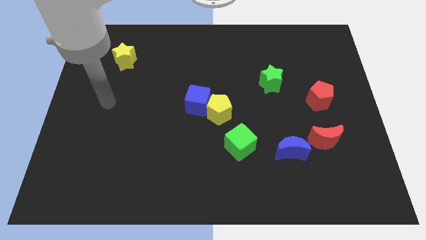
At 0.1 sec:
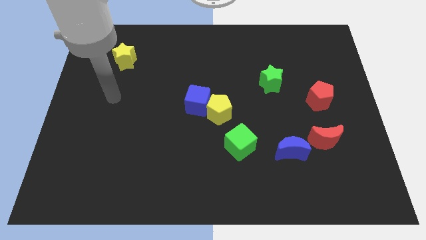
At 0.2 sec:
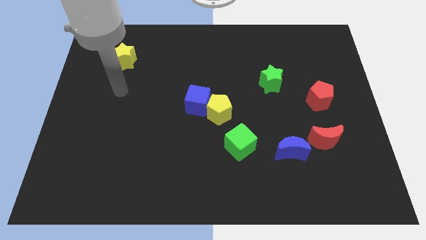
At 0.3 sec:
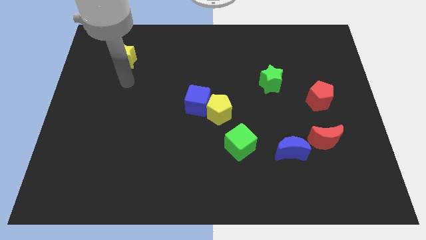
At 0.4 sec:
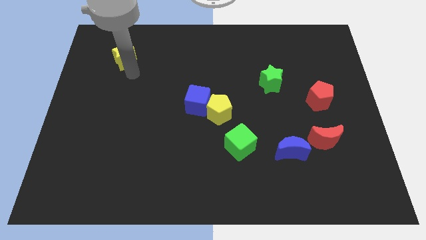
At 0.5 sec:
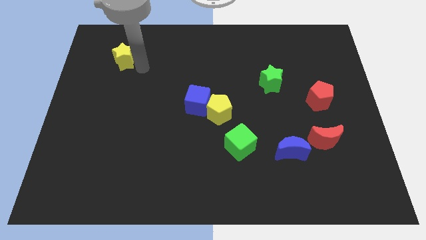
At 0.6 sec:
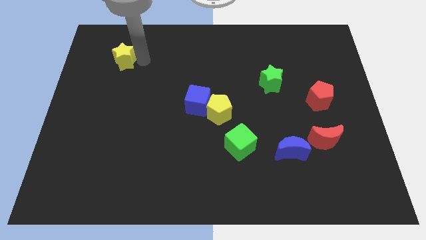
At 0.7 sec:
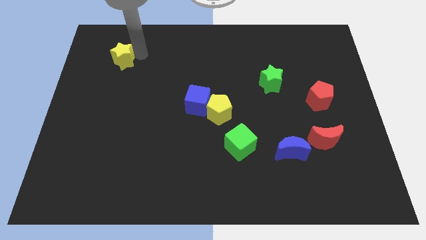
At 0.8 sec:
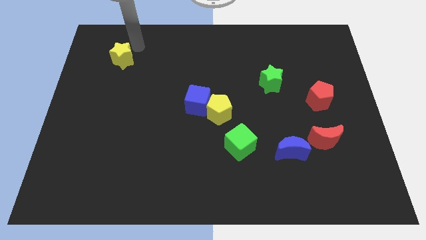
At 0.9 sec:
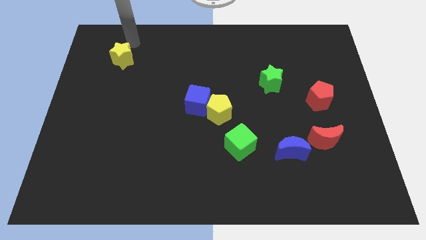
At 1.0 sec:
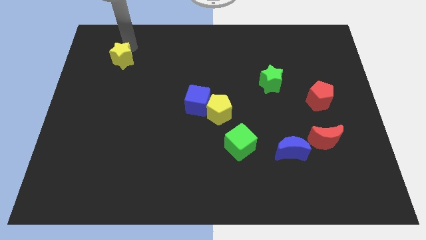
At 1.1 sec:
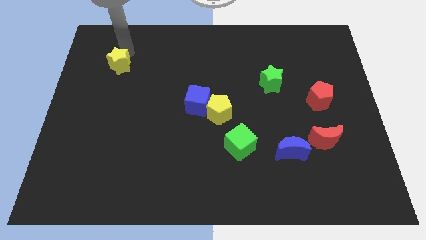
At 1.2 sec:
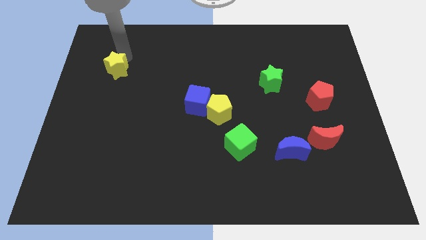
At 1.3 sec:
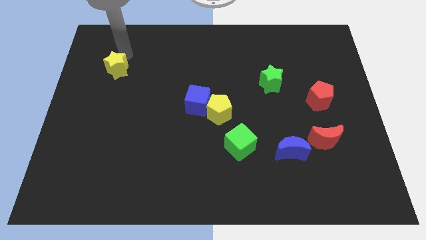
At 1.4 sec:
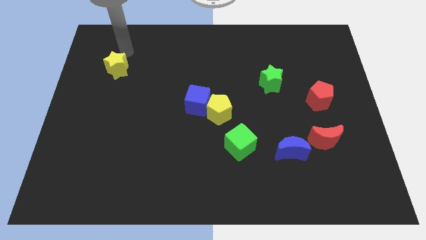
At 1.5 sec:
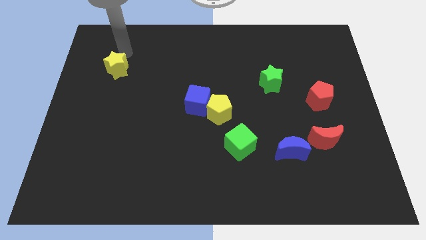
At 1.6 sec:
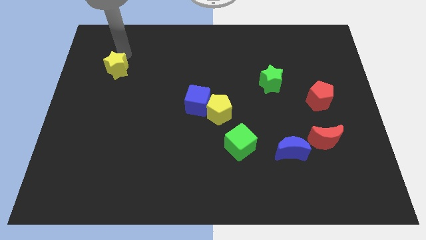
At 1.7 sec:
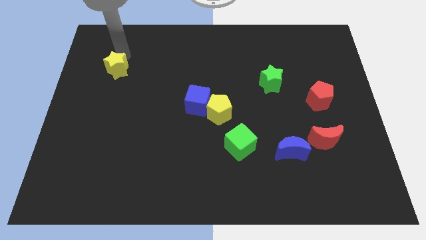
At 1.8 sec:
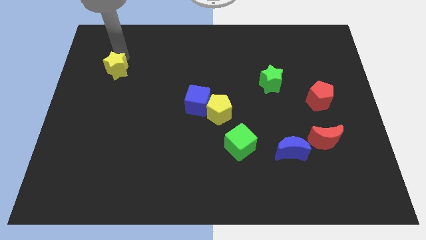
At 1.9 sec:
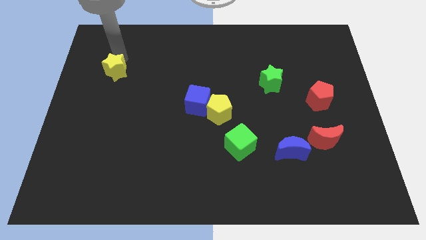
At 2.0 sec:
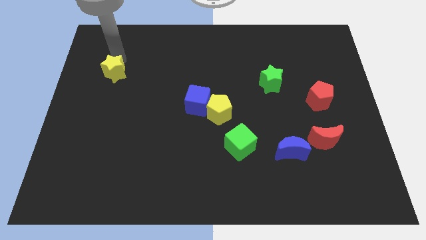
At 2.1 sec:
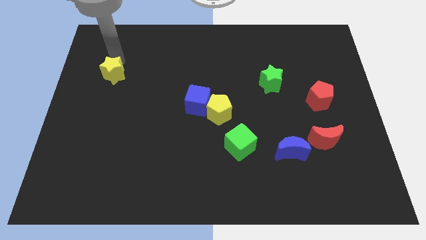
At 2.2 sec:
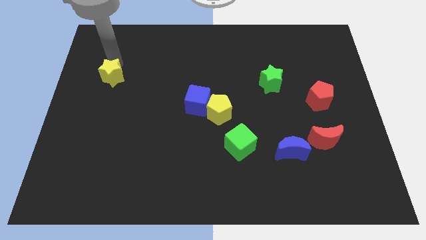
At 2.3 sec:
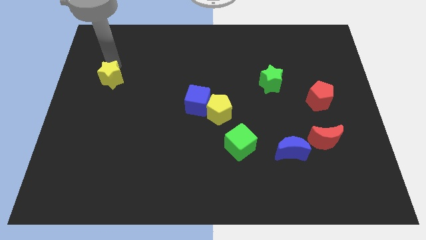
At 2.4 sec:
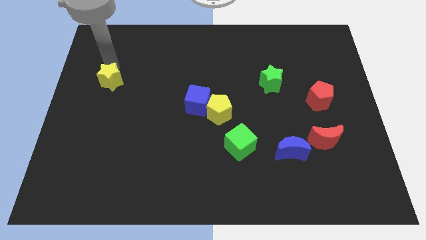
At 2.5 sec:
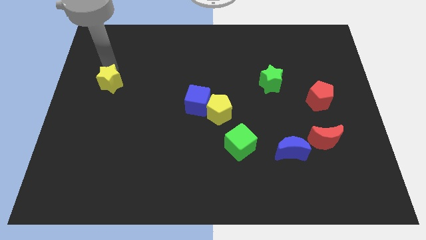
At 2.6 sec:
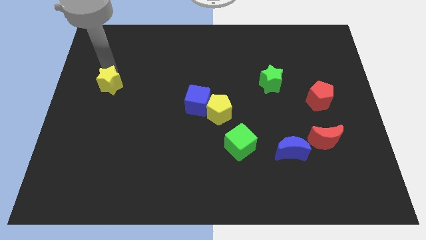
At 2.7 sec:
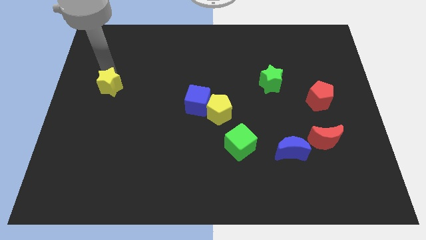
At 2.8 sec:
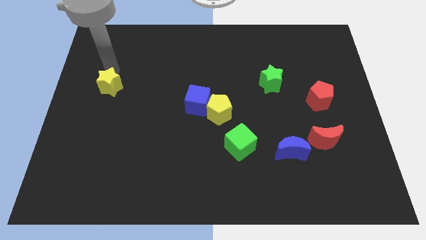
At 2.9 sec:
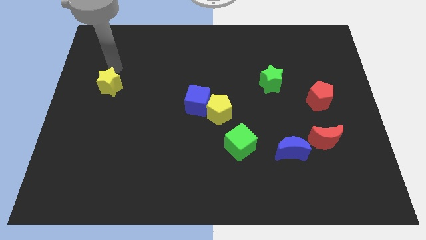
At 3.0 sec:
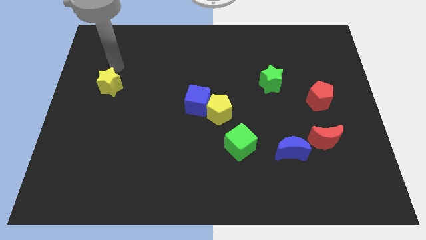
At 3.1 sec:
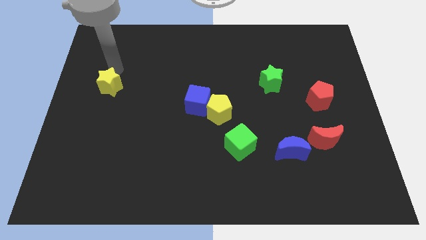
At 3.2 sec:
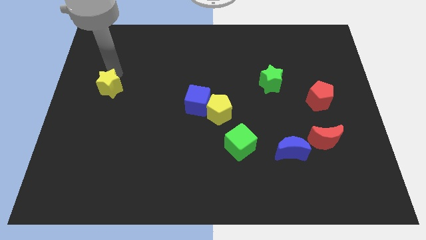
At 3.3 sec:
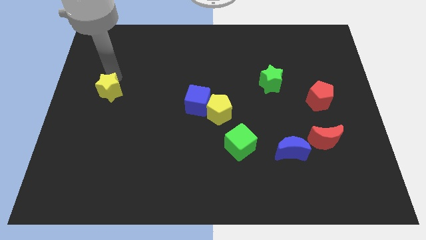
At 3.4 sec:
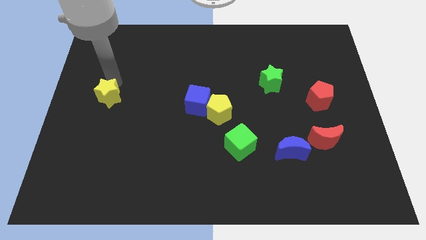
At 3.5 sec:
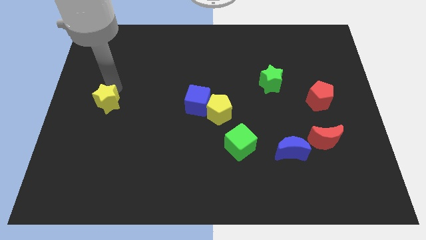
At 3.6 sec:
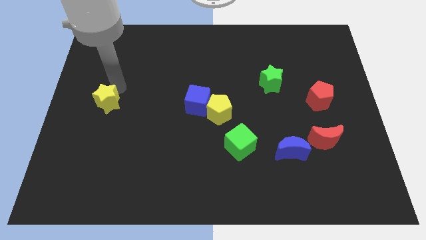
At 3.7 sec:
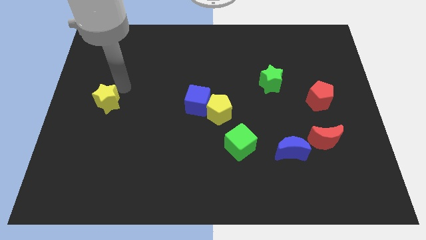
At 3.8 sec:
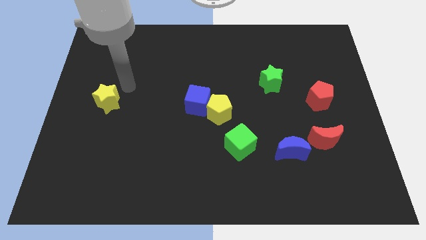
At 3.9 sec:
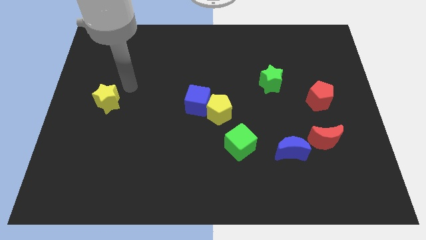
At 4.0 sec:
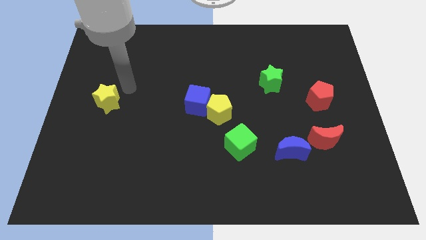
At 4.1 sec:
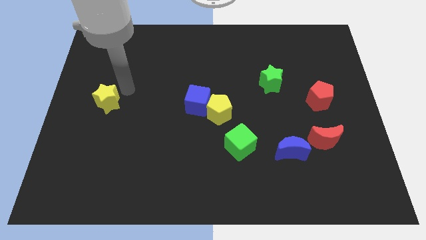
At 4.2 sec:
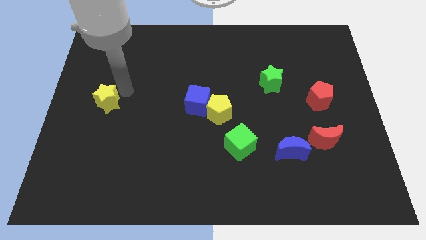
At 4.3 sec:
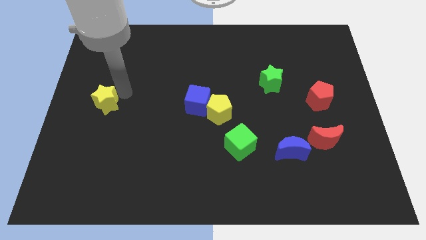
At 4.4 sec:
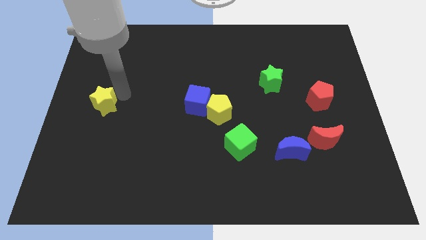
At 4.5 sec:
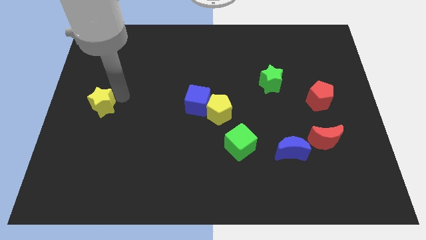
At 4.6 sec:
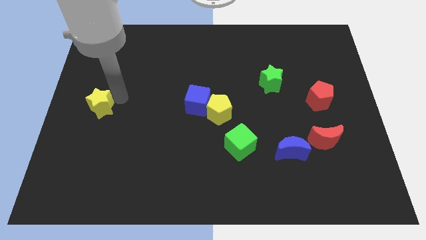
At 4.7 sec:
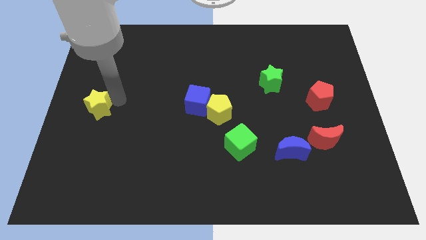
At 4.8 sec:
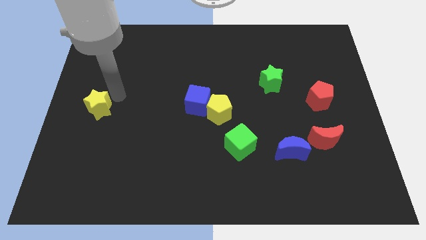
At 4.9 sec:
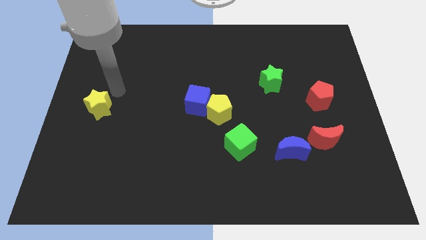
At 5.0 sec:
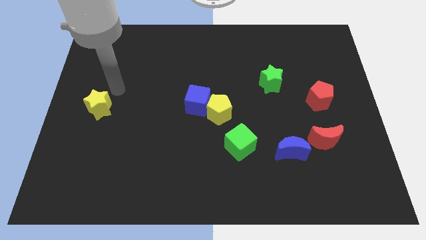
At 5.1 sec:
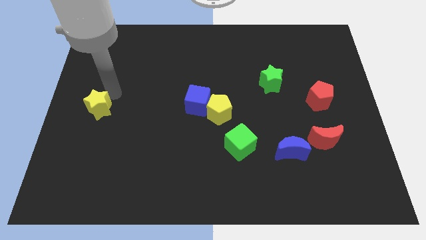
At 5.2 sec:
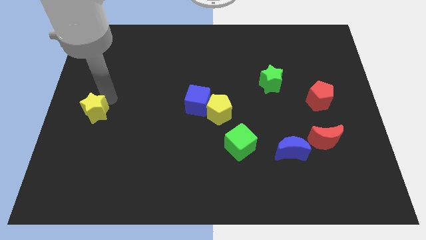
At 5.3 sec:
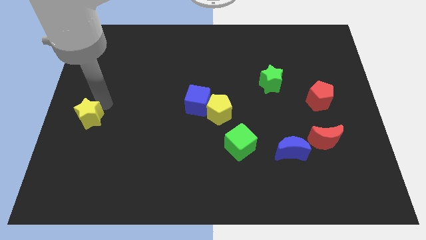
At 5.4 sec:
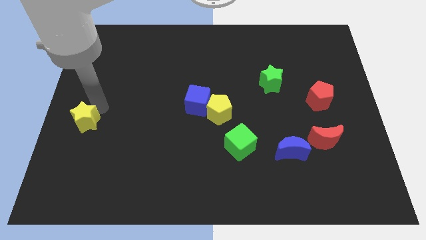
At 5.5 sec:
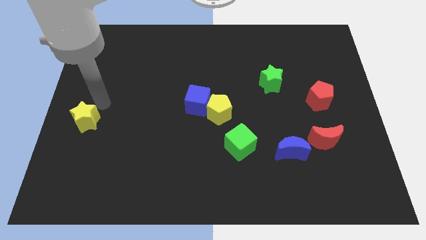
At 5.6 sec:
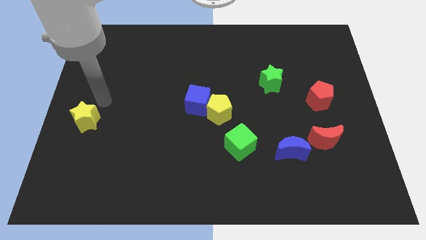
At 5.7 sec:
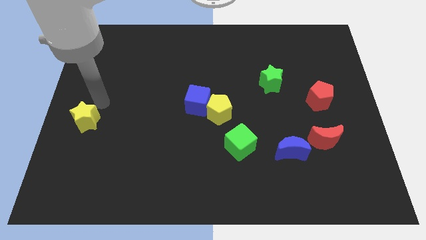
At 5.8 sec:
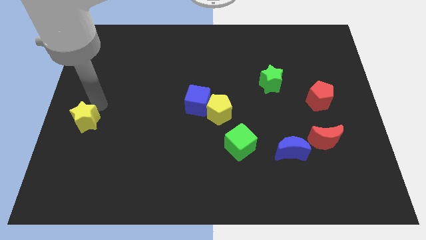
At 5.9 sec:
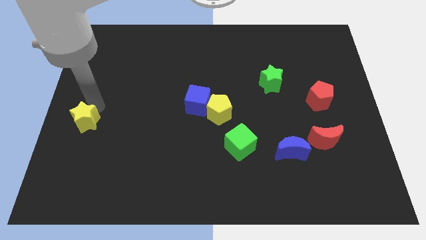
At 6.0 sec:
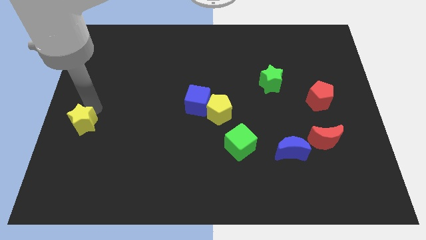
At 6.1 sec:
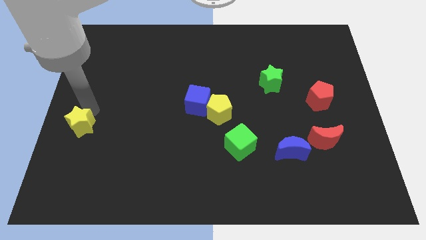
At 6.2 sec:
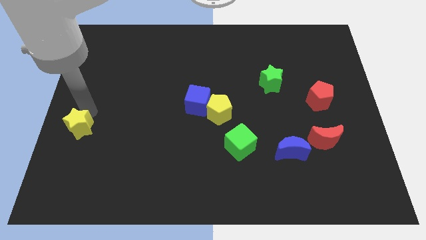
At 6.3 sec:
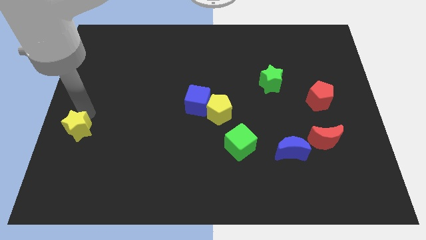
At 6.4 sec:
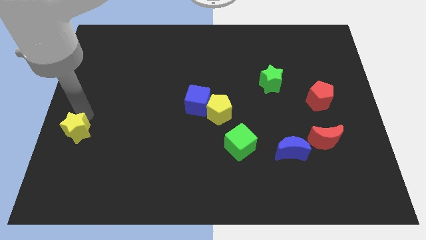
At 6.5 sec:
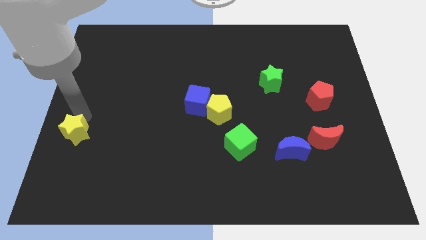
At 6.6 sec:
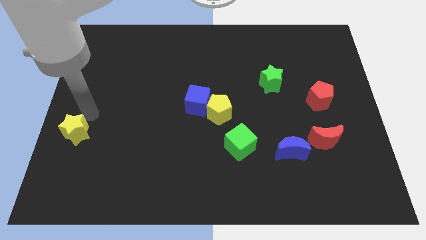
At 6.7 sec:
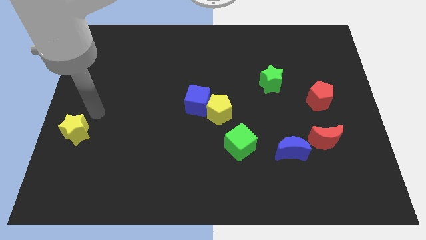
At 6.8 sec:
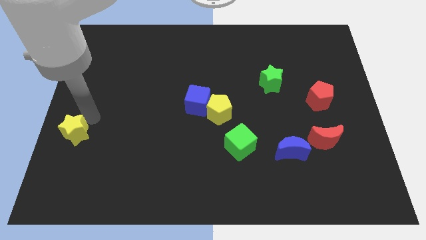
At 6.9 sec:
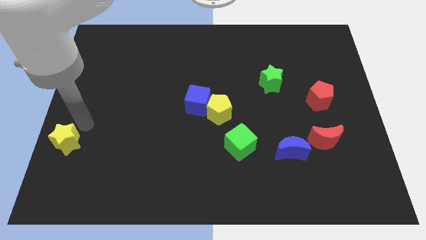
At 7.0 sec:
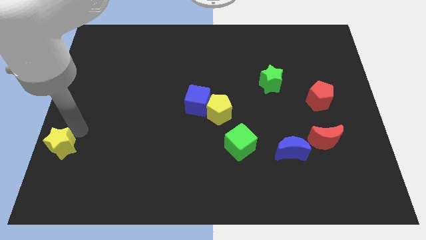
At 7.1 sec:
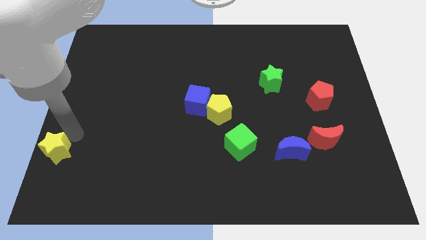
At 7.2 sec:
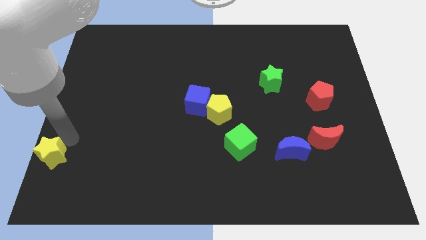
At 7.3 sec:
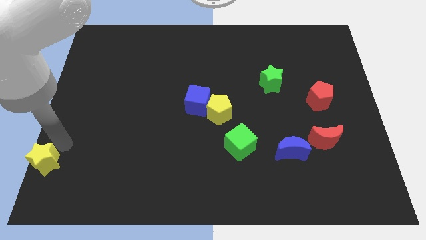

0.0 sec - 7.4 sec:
put the yellow star to the bottom left corner
